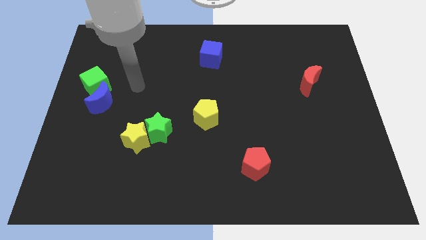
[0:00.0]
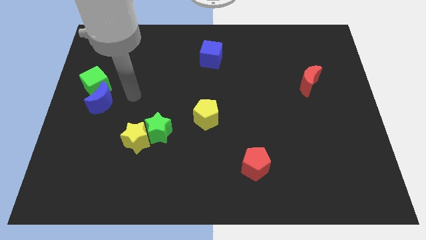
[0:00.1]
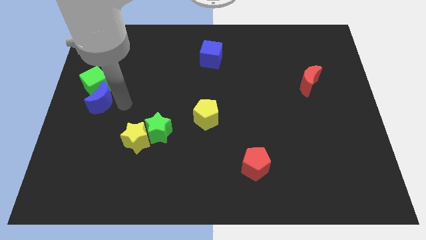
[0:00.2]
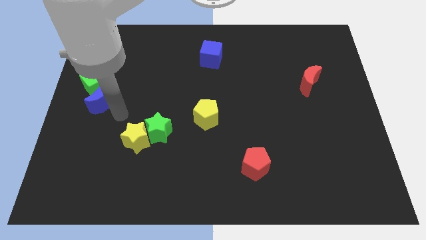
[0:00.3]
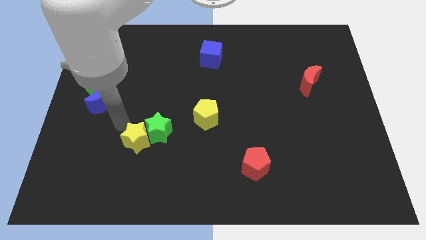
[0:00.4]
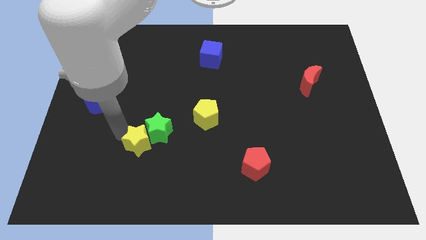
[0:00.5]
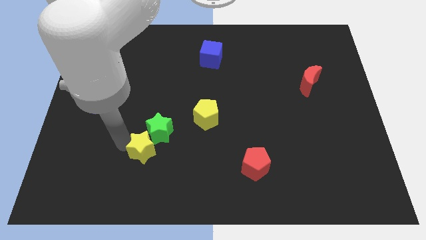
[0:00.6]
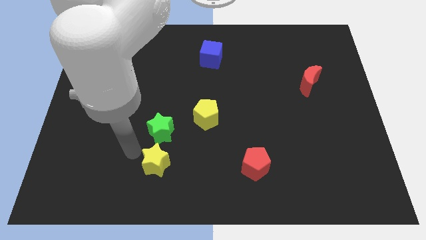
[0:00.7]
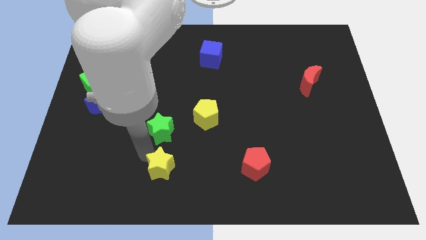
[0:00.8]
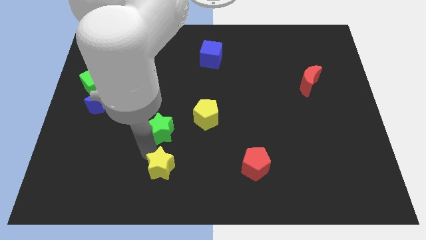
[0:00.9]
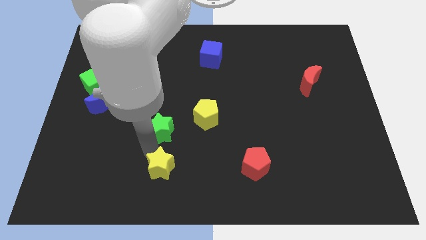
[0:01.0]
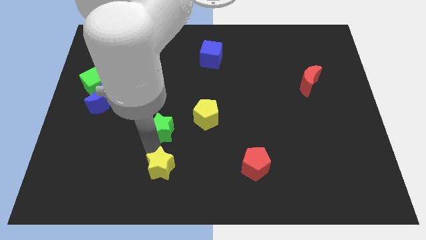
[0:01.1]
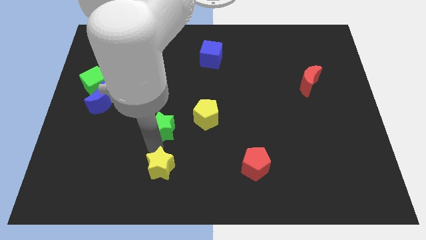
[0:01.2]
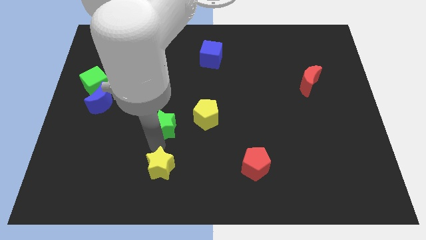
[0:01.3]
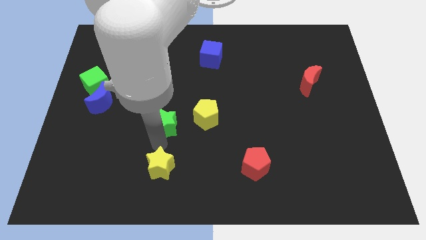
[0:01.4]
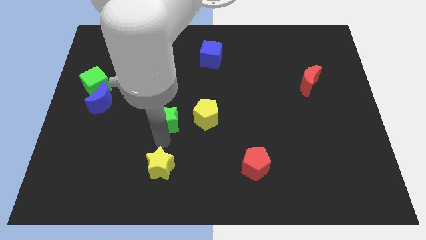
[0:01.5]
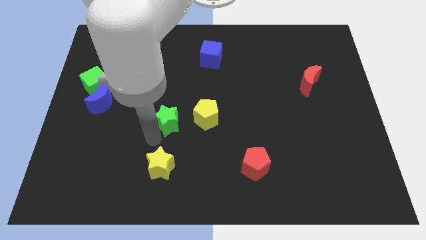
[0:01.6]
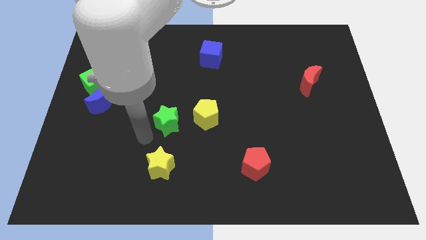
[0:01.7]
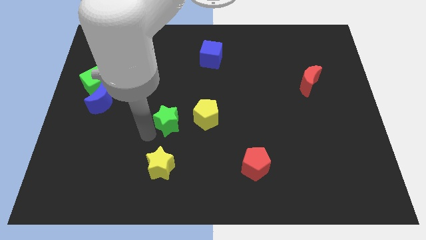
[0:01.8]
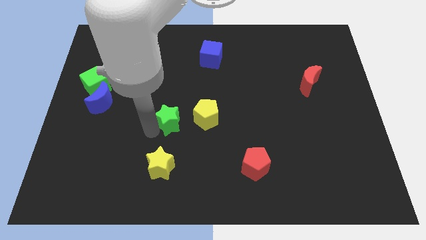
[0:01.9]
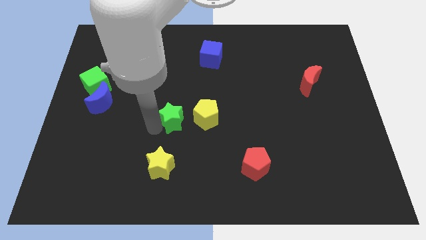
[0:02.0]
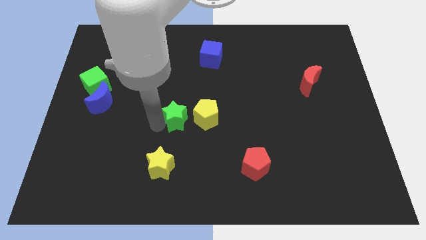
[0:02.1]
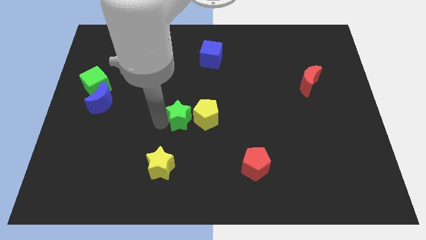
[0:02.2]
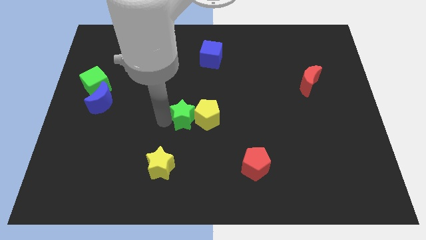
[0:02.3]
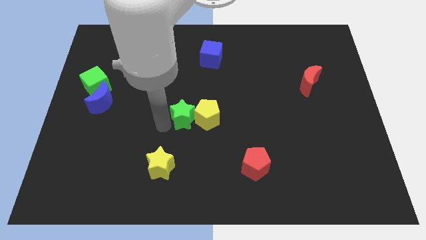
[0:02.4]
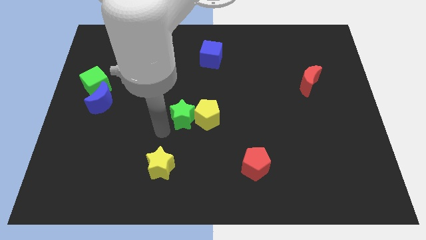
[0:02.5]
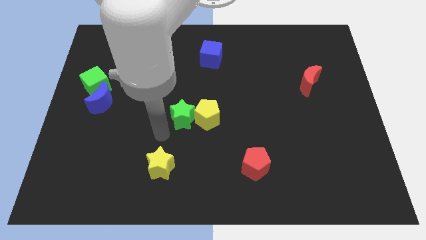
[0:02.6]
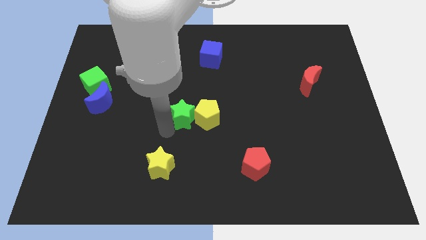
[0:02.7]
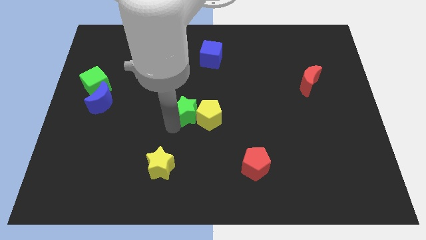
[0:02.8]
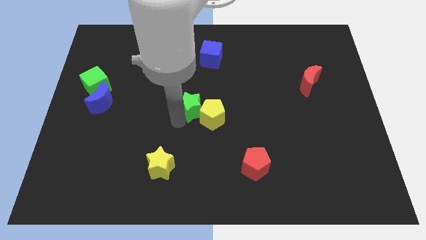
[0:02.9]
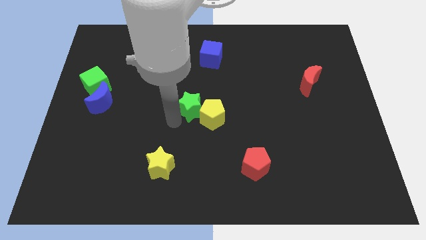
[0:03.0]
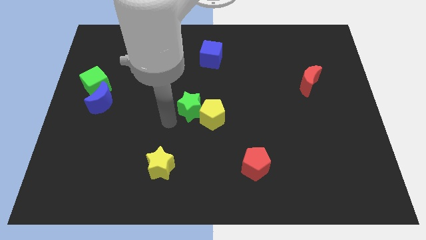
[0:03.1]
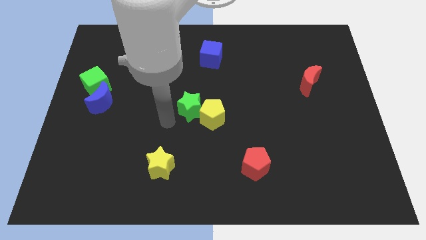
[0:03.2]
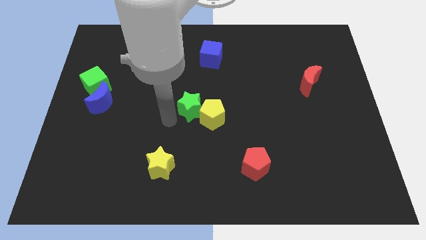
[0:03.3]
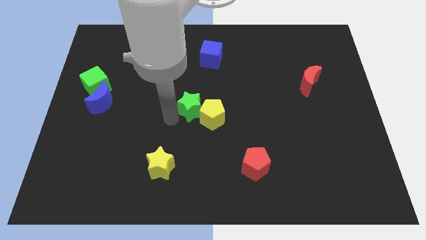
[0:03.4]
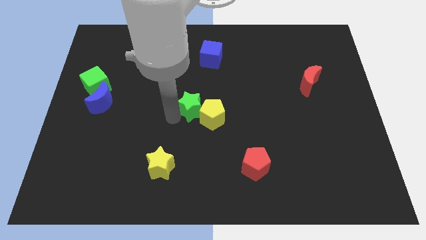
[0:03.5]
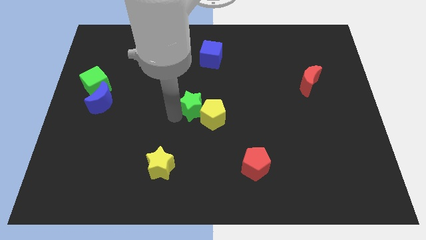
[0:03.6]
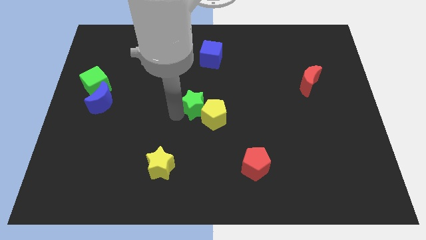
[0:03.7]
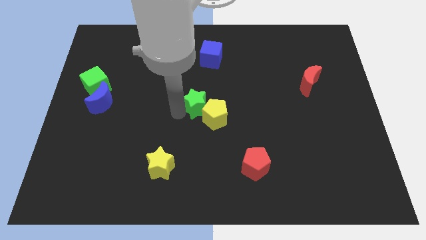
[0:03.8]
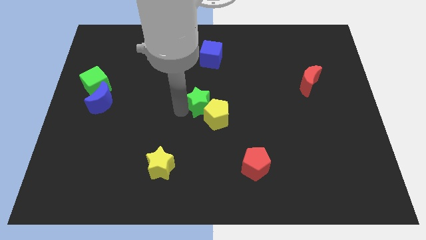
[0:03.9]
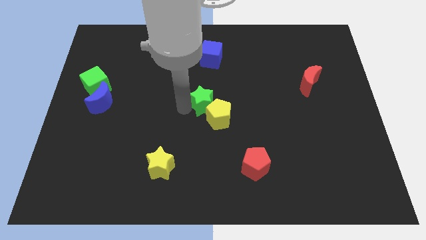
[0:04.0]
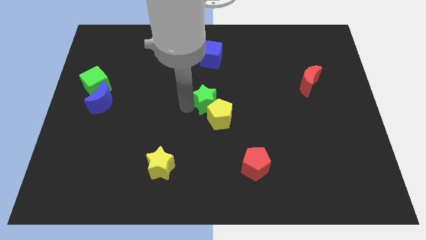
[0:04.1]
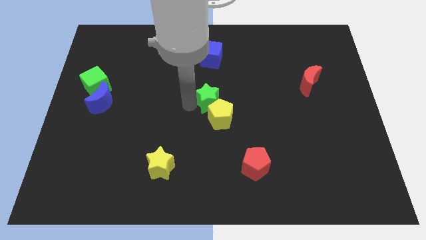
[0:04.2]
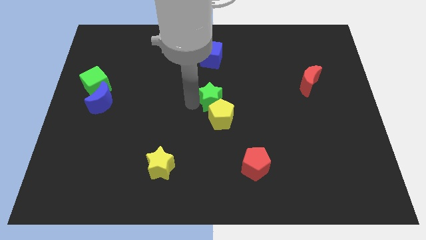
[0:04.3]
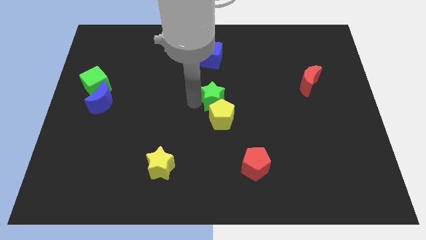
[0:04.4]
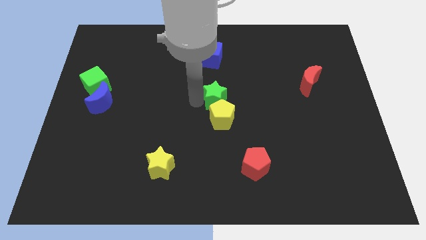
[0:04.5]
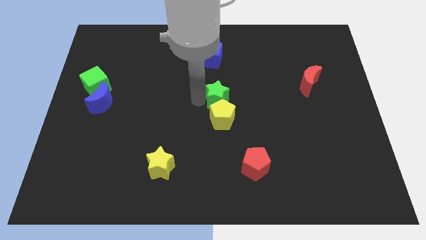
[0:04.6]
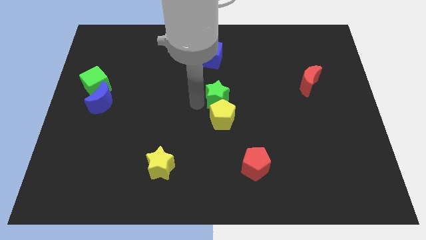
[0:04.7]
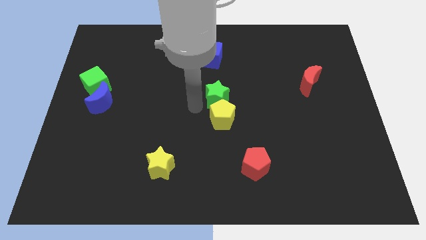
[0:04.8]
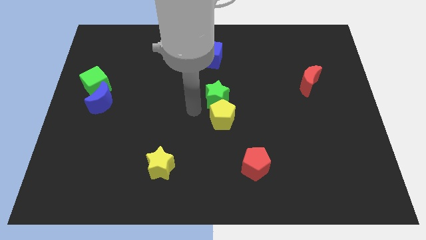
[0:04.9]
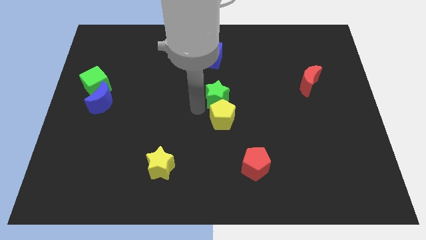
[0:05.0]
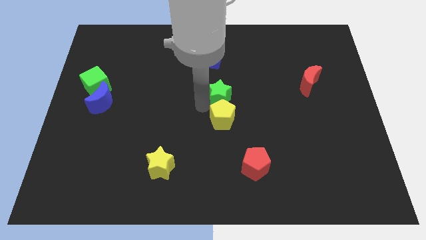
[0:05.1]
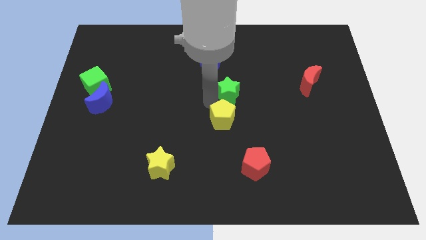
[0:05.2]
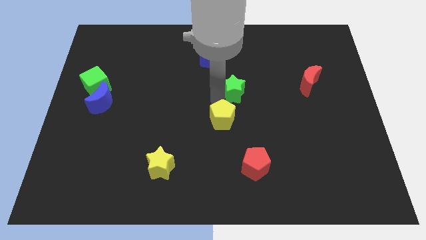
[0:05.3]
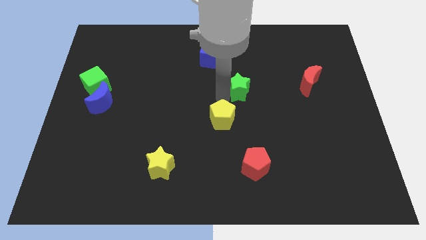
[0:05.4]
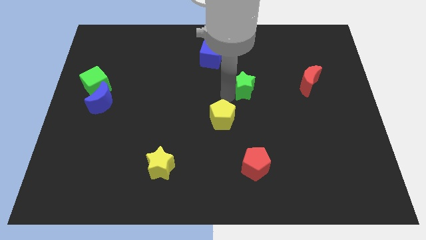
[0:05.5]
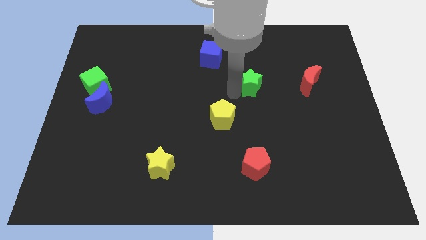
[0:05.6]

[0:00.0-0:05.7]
put the green star left of the red moon

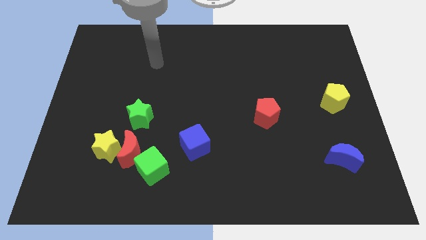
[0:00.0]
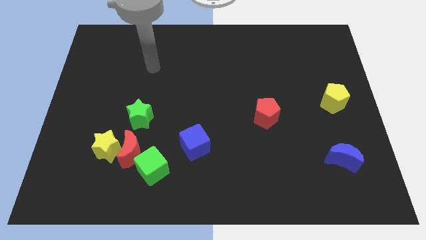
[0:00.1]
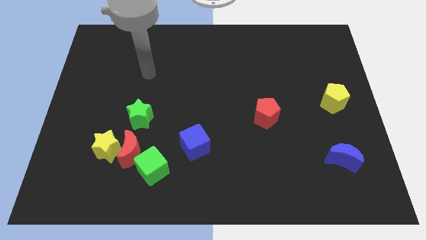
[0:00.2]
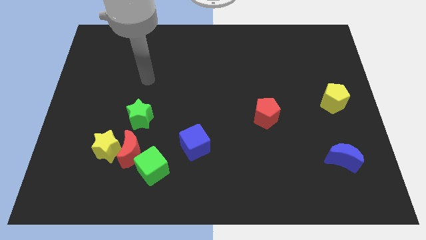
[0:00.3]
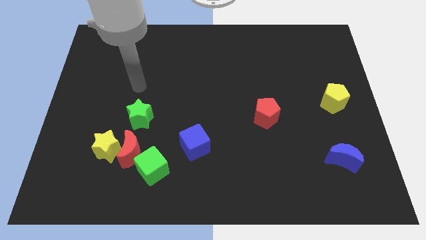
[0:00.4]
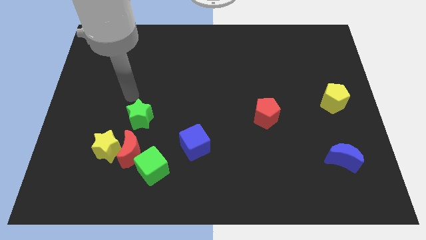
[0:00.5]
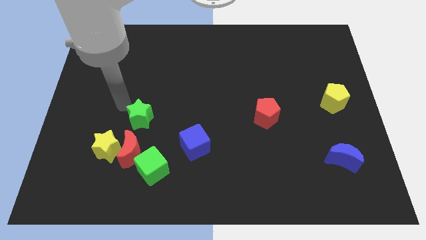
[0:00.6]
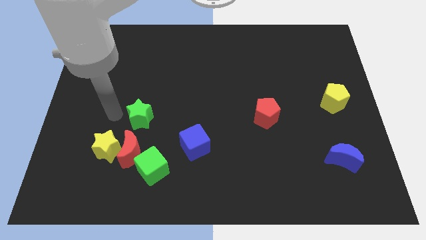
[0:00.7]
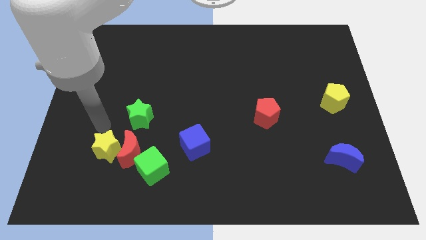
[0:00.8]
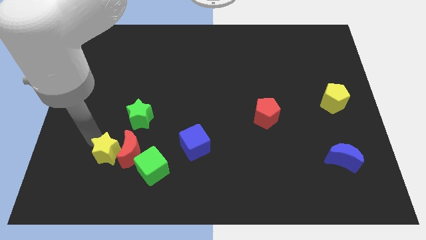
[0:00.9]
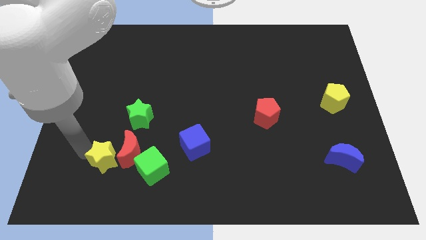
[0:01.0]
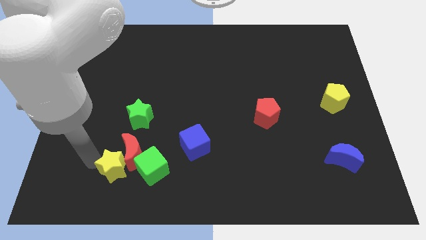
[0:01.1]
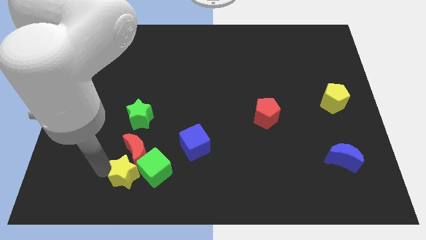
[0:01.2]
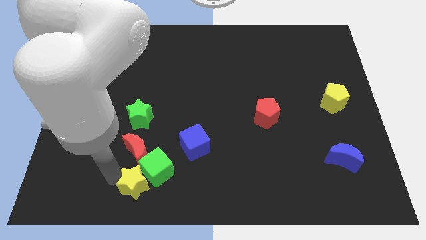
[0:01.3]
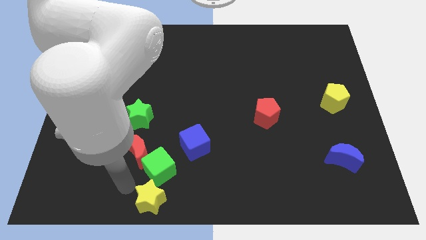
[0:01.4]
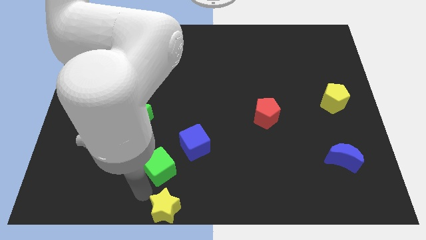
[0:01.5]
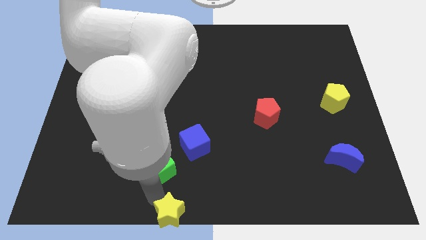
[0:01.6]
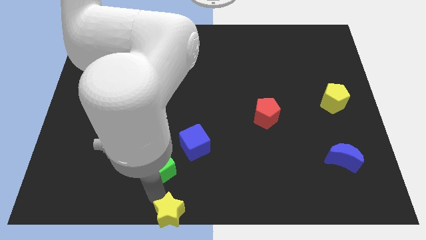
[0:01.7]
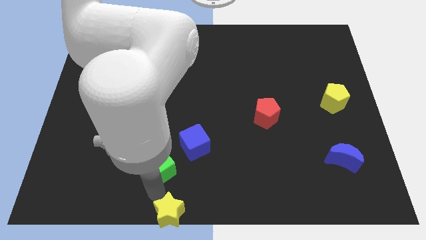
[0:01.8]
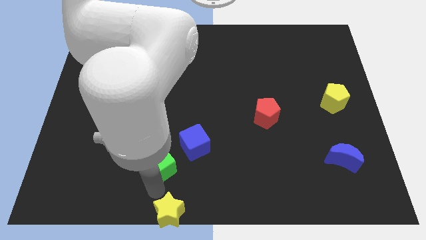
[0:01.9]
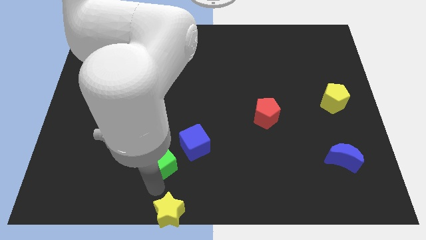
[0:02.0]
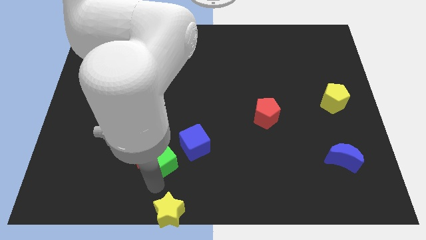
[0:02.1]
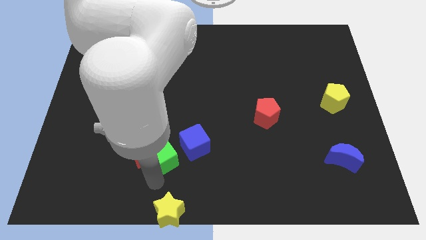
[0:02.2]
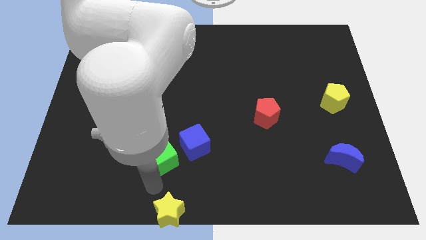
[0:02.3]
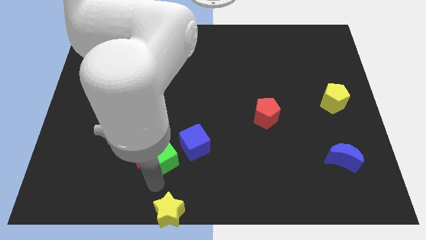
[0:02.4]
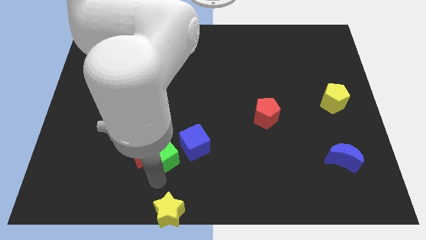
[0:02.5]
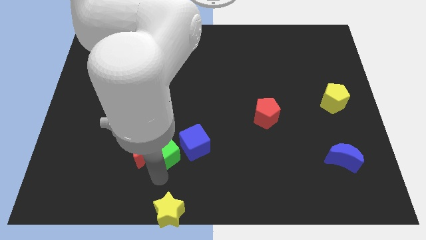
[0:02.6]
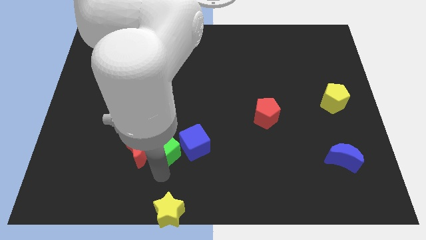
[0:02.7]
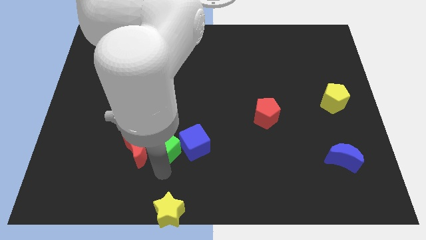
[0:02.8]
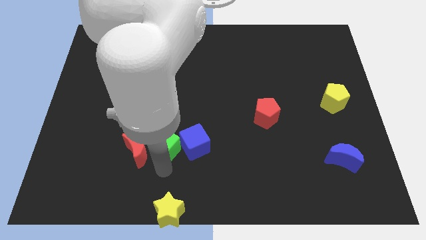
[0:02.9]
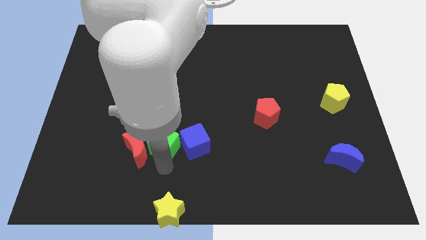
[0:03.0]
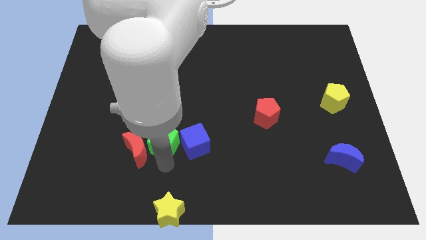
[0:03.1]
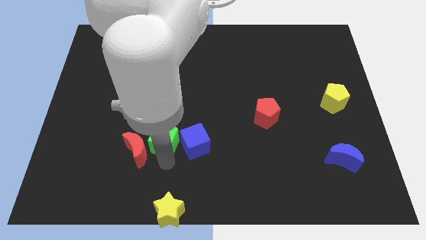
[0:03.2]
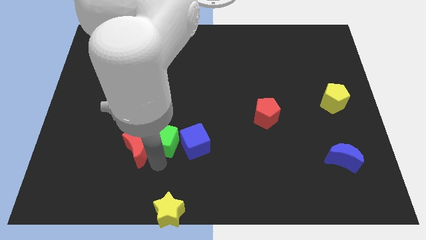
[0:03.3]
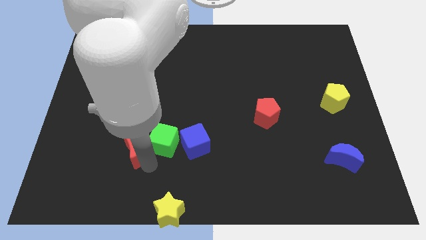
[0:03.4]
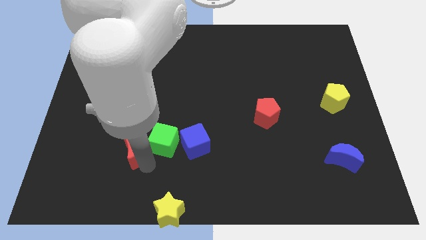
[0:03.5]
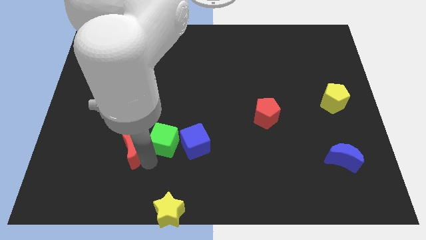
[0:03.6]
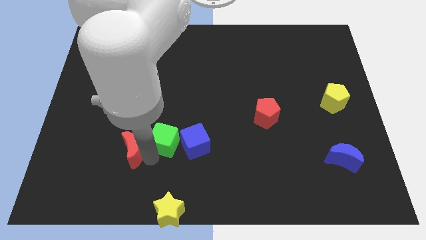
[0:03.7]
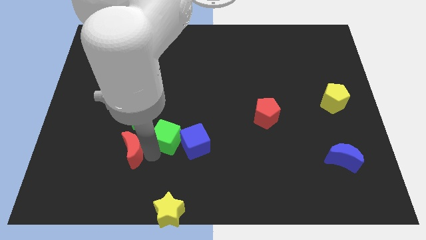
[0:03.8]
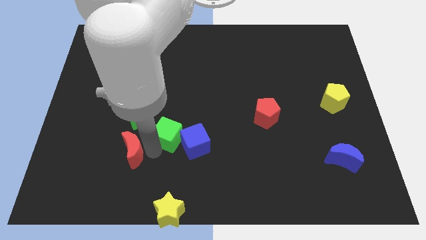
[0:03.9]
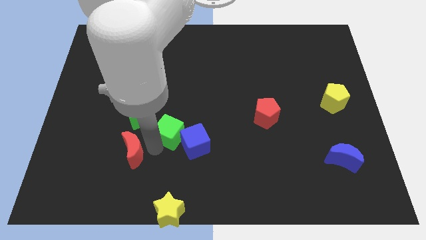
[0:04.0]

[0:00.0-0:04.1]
slide the green cube right of the green star
